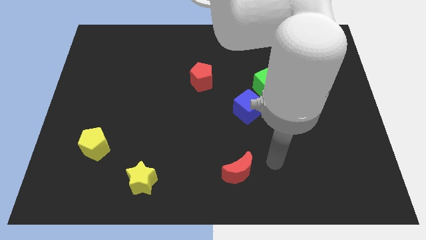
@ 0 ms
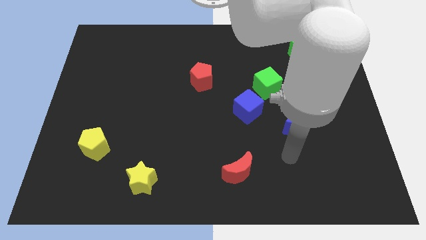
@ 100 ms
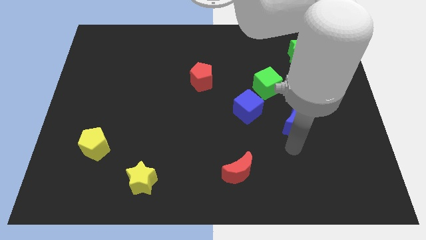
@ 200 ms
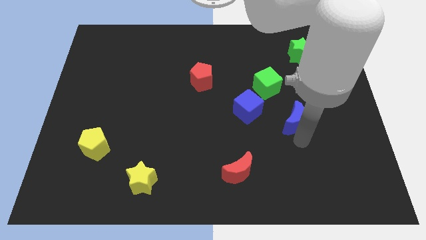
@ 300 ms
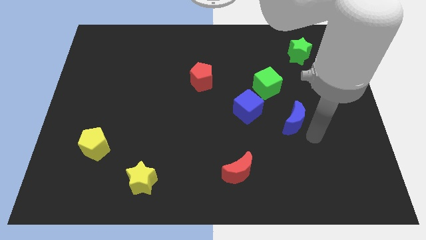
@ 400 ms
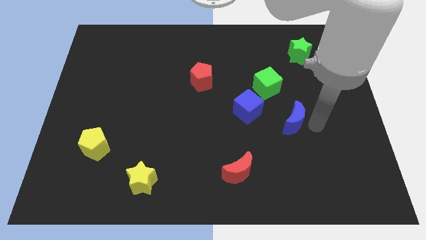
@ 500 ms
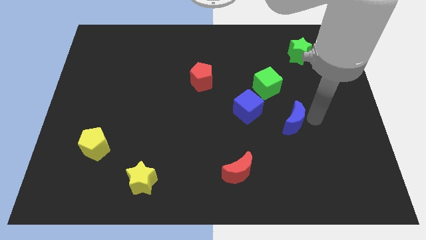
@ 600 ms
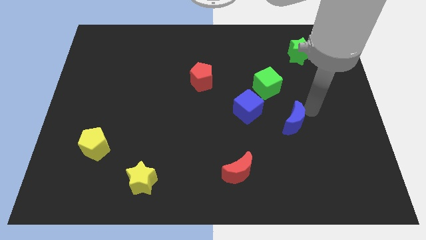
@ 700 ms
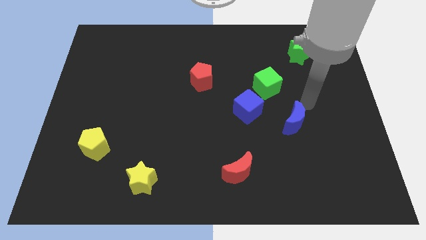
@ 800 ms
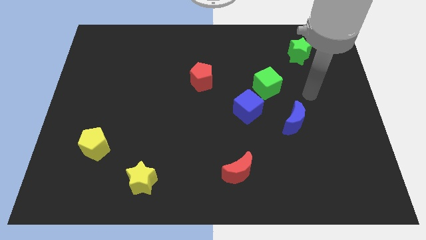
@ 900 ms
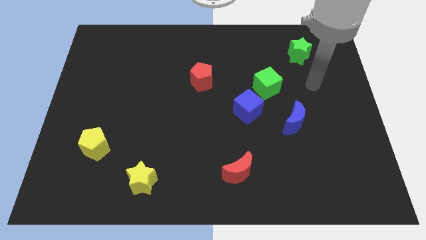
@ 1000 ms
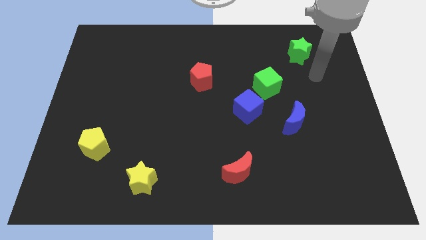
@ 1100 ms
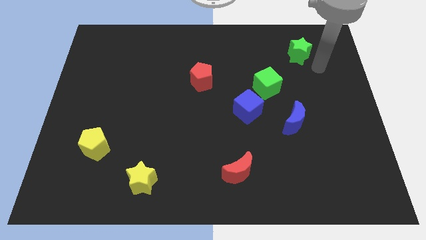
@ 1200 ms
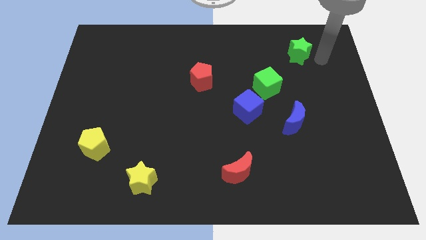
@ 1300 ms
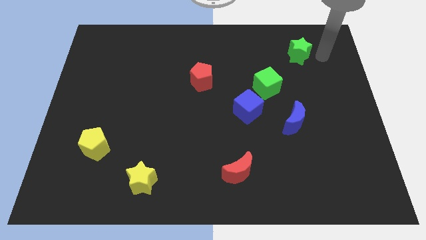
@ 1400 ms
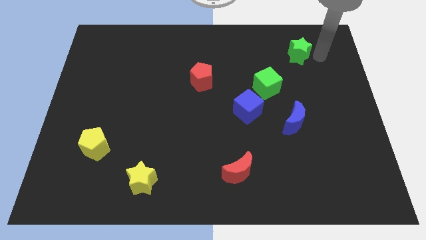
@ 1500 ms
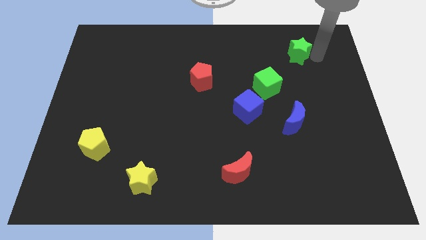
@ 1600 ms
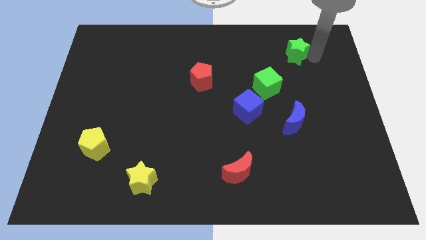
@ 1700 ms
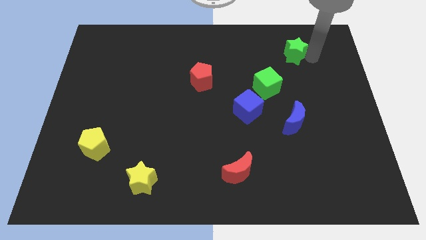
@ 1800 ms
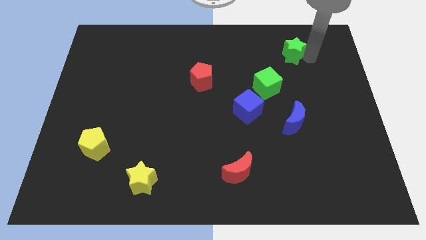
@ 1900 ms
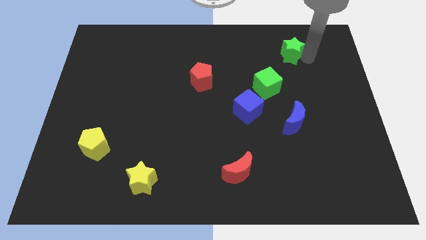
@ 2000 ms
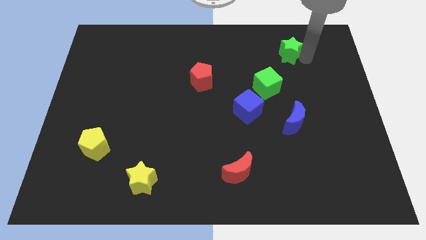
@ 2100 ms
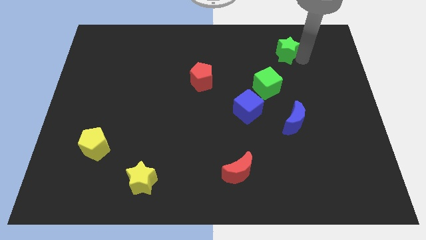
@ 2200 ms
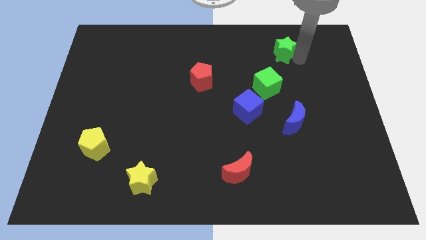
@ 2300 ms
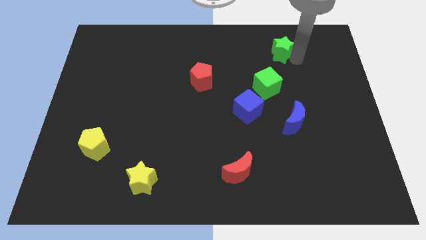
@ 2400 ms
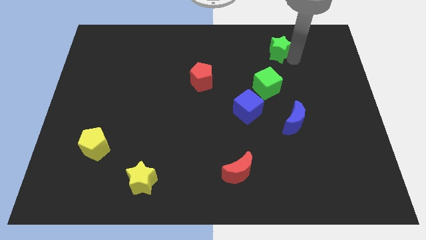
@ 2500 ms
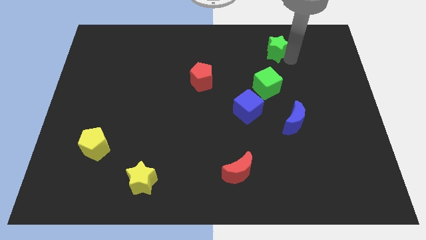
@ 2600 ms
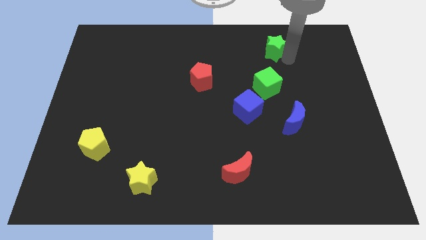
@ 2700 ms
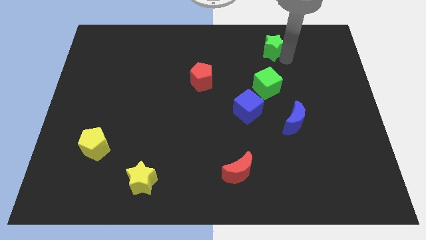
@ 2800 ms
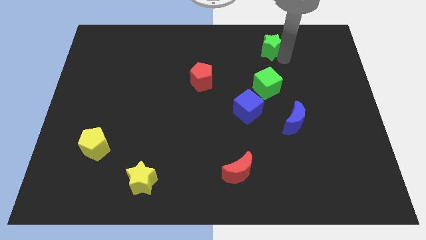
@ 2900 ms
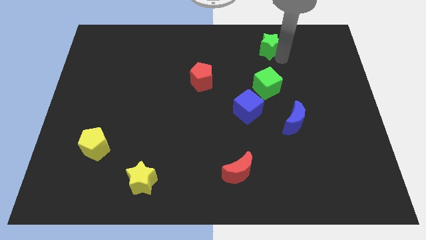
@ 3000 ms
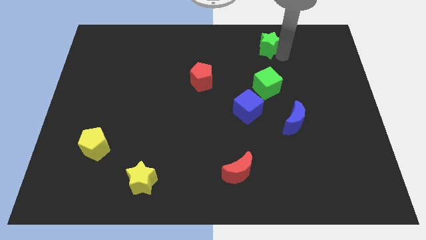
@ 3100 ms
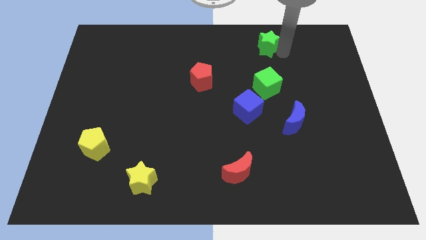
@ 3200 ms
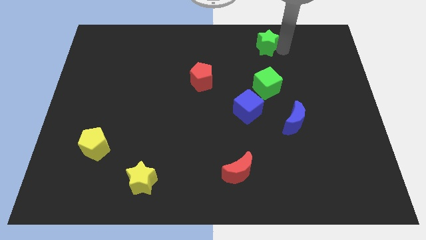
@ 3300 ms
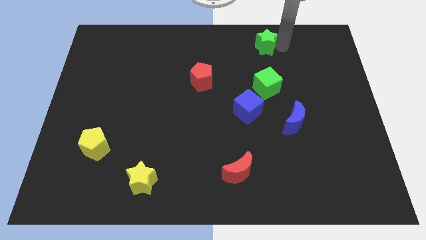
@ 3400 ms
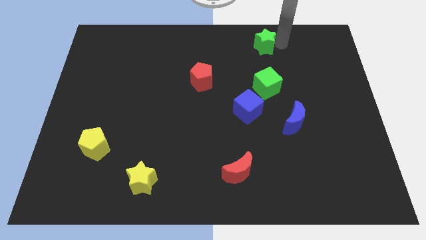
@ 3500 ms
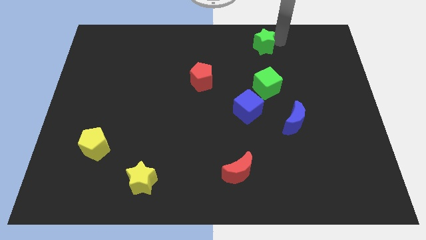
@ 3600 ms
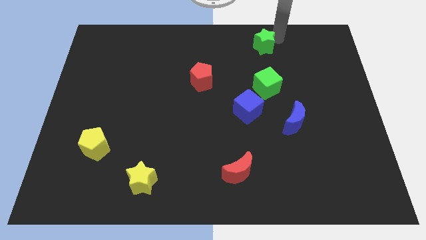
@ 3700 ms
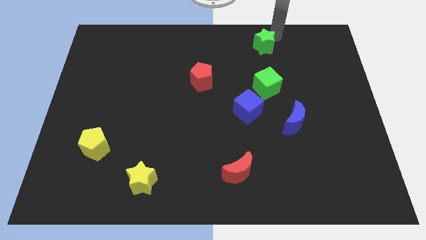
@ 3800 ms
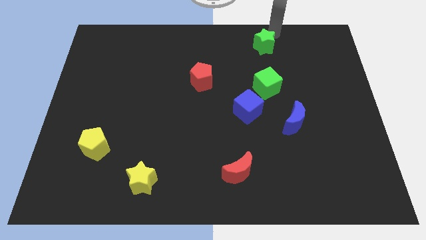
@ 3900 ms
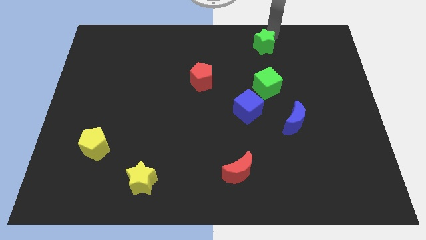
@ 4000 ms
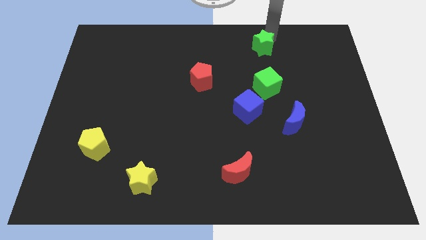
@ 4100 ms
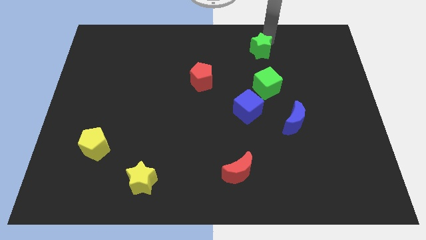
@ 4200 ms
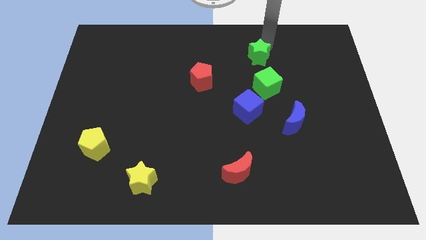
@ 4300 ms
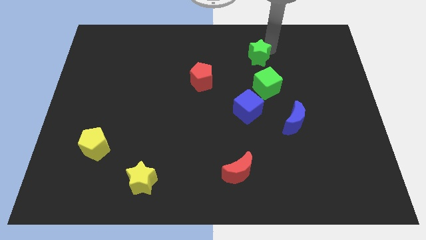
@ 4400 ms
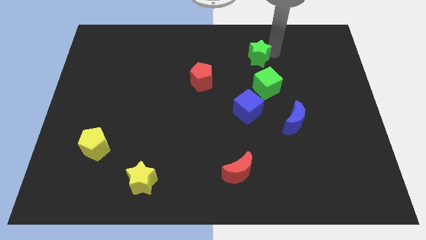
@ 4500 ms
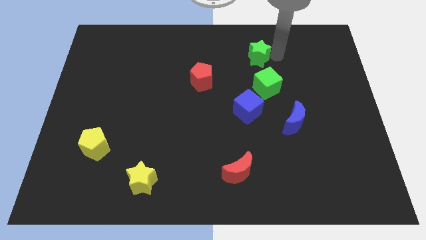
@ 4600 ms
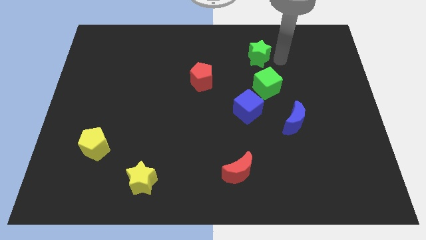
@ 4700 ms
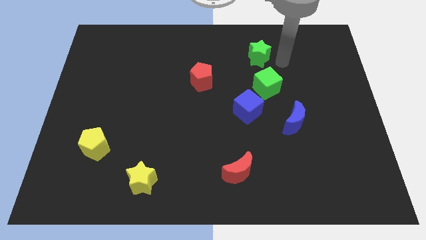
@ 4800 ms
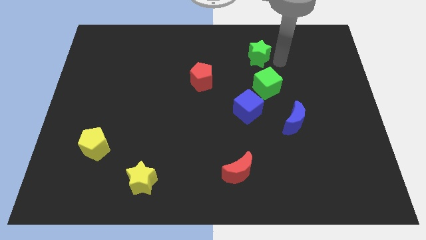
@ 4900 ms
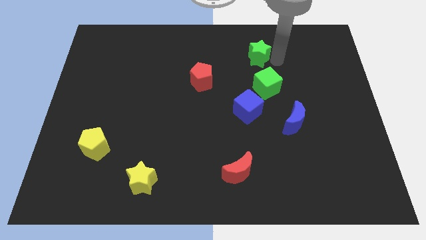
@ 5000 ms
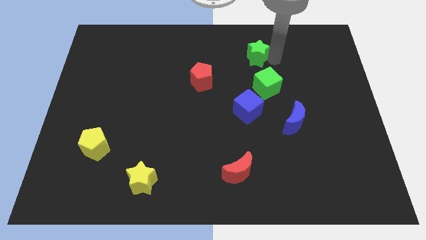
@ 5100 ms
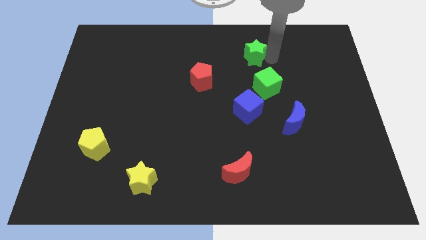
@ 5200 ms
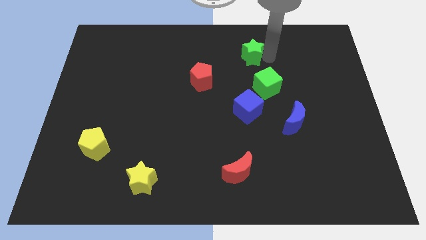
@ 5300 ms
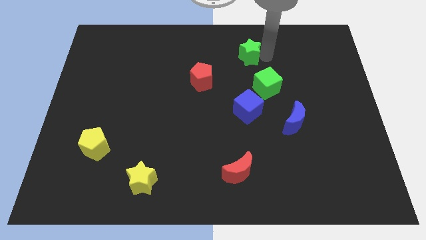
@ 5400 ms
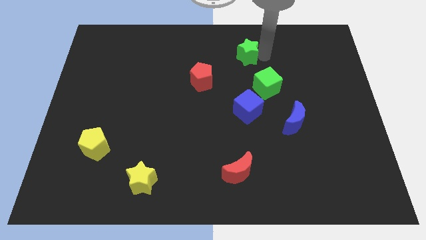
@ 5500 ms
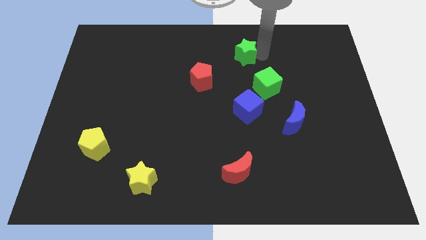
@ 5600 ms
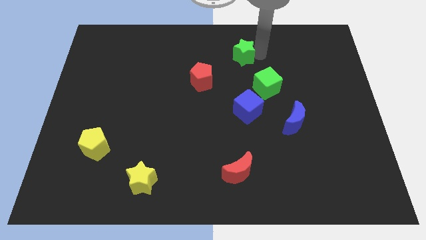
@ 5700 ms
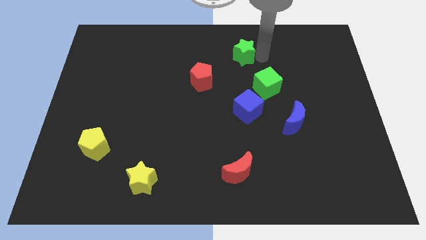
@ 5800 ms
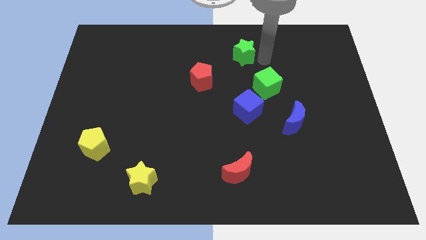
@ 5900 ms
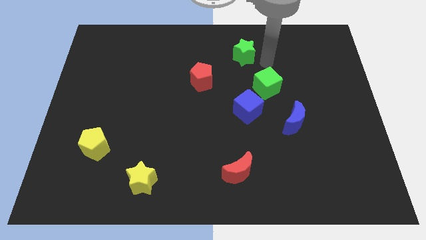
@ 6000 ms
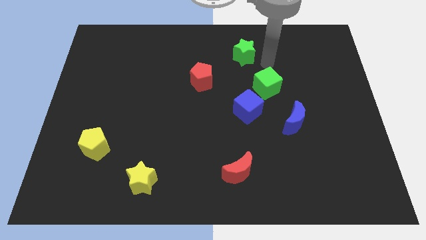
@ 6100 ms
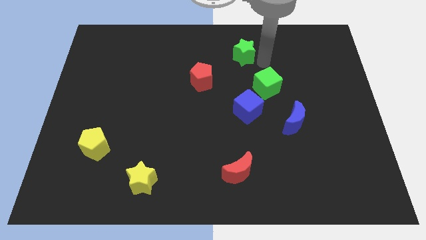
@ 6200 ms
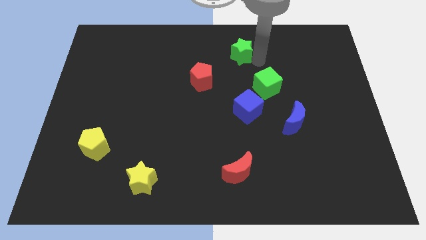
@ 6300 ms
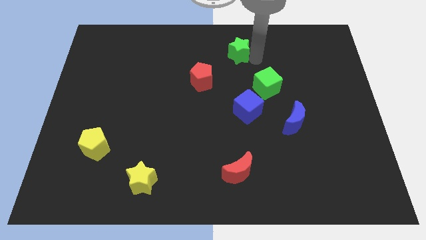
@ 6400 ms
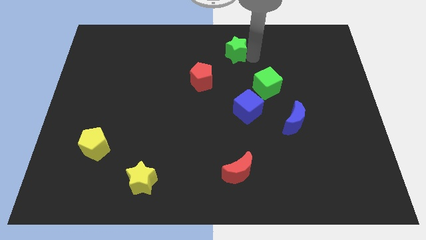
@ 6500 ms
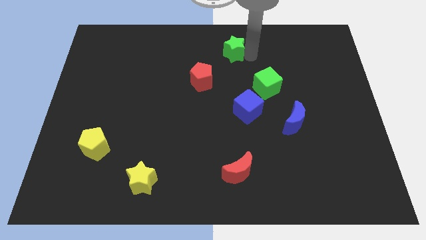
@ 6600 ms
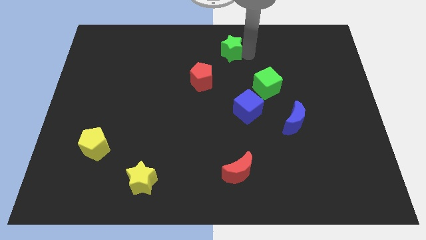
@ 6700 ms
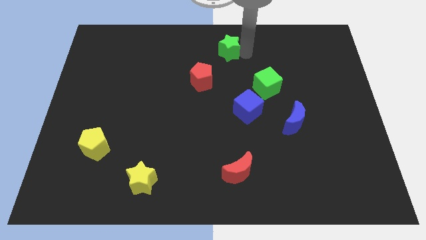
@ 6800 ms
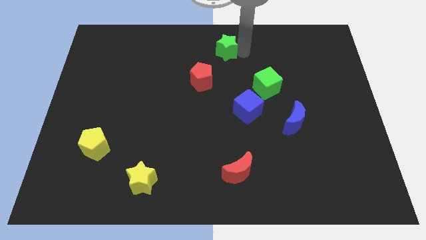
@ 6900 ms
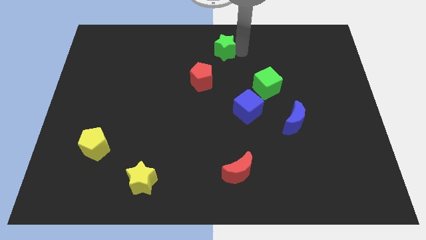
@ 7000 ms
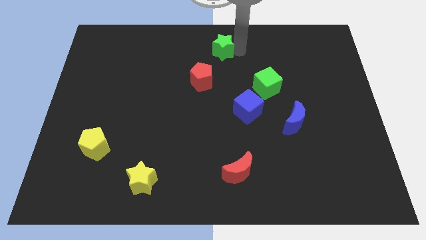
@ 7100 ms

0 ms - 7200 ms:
move the green star to the left

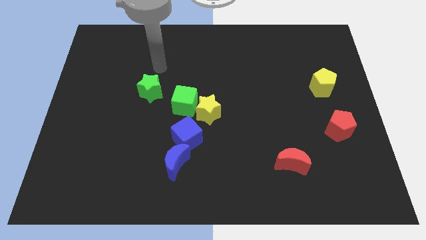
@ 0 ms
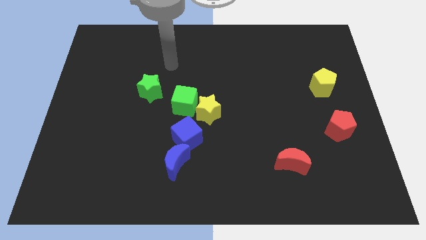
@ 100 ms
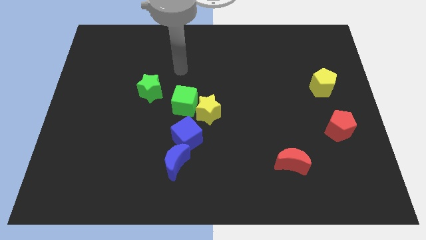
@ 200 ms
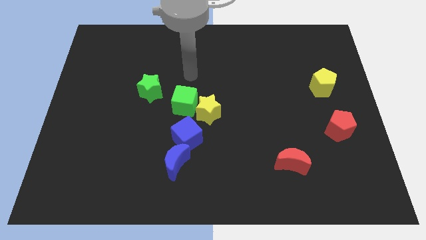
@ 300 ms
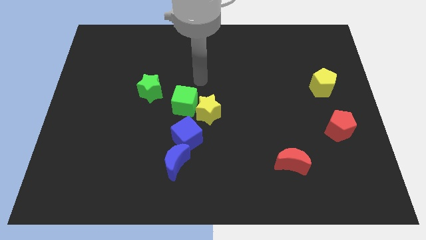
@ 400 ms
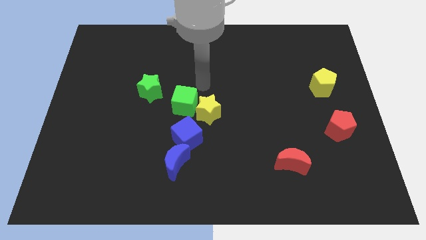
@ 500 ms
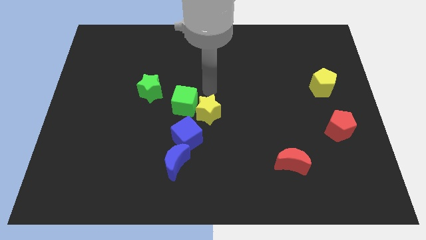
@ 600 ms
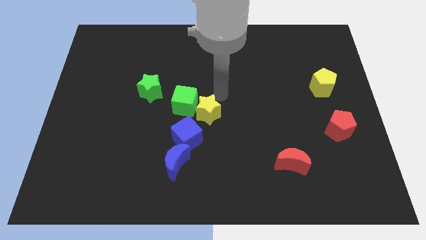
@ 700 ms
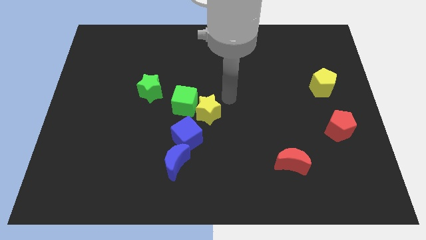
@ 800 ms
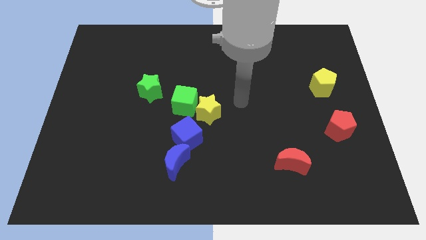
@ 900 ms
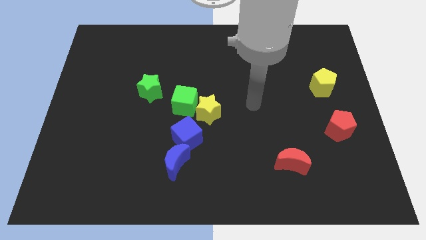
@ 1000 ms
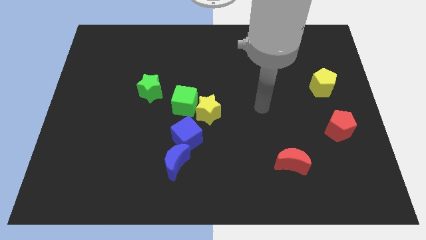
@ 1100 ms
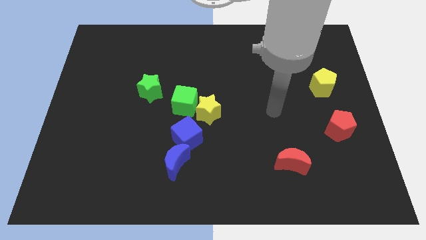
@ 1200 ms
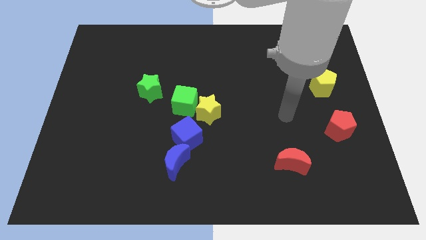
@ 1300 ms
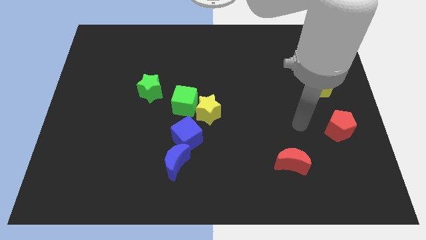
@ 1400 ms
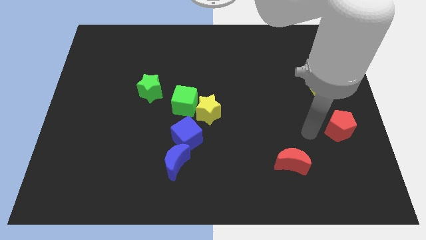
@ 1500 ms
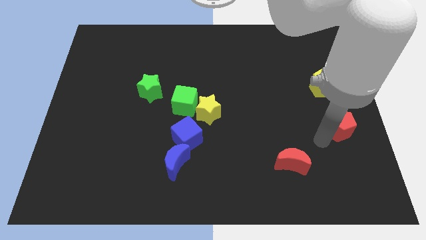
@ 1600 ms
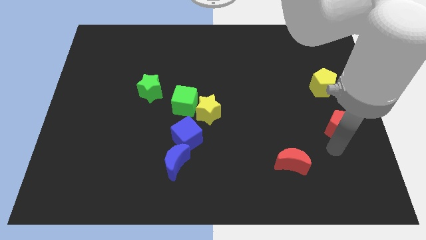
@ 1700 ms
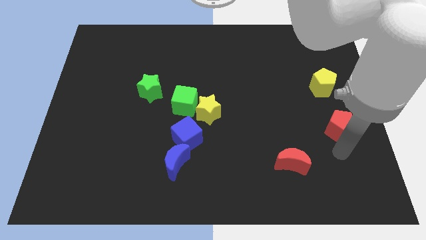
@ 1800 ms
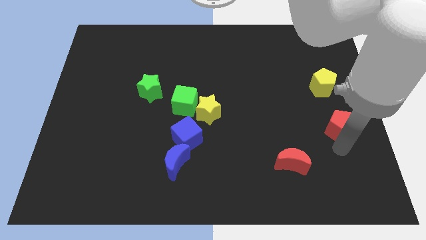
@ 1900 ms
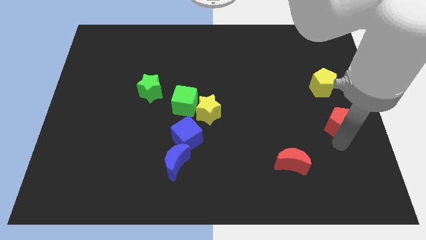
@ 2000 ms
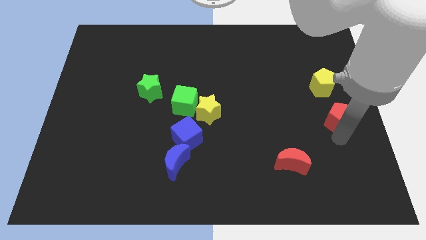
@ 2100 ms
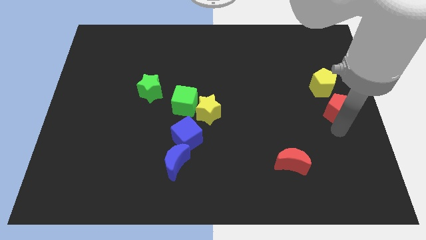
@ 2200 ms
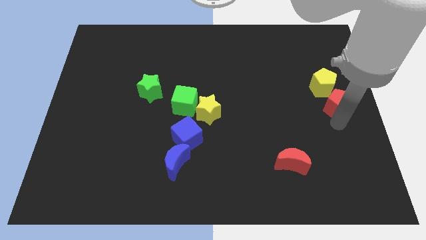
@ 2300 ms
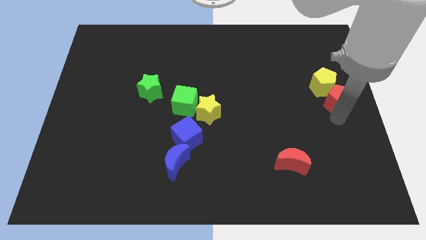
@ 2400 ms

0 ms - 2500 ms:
slightly slide the red pentagon up
